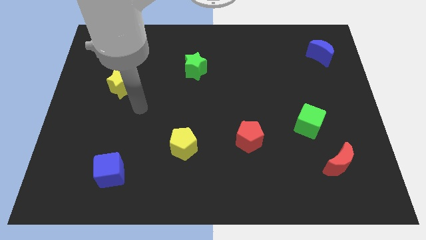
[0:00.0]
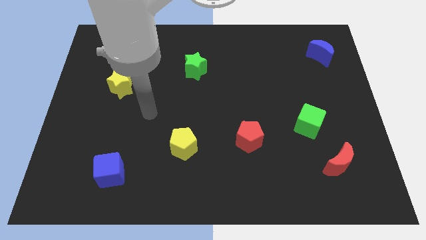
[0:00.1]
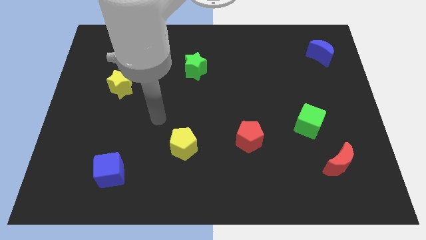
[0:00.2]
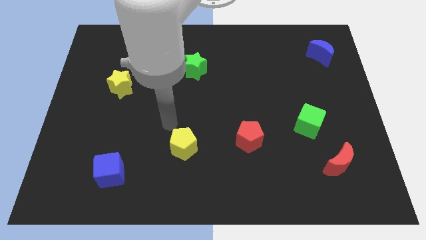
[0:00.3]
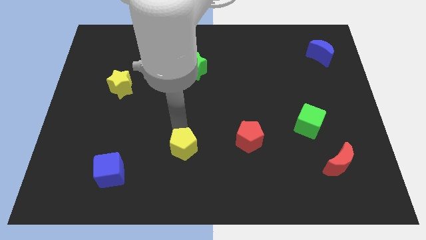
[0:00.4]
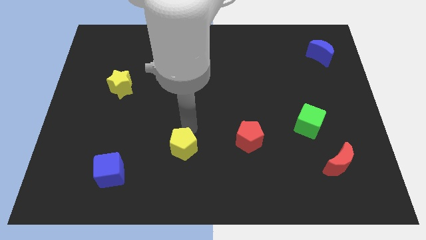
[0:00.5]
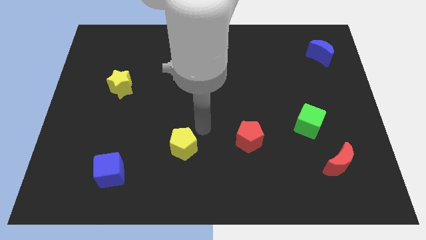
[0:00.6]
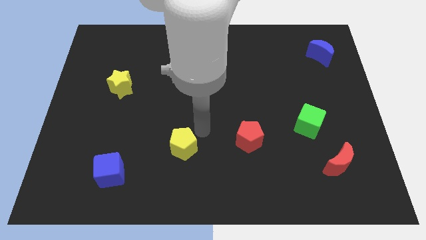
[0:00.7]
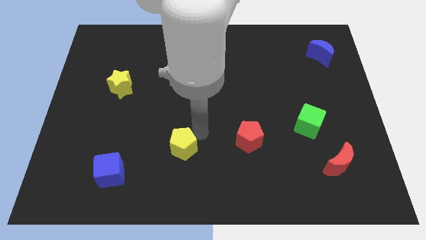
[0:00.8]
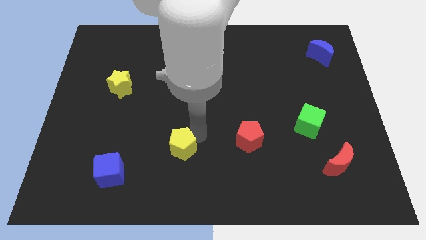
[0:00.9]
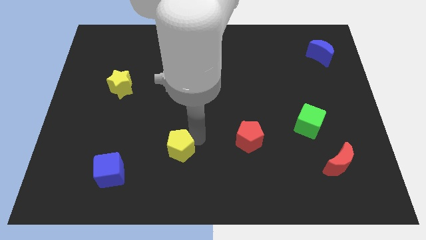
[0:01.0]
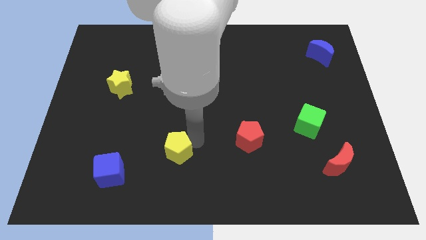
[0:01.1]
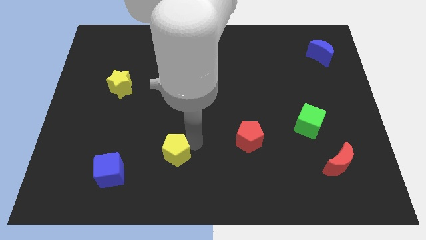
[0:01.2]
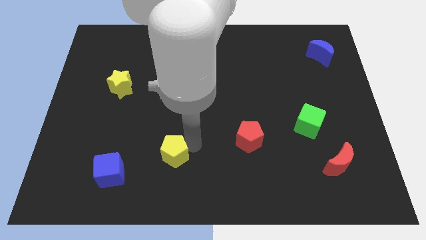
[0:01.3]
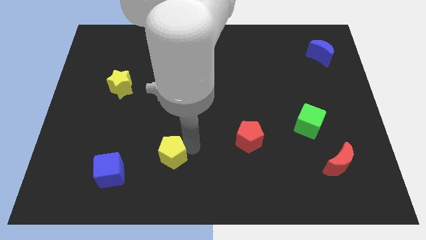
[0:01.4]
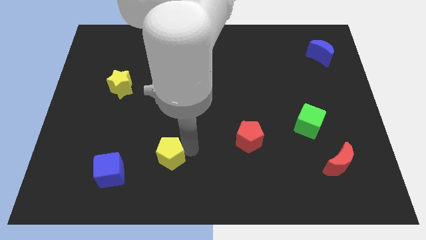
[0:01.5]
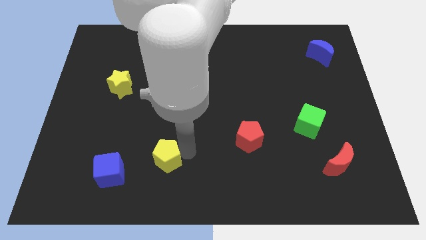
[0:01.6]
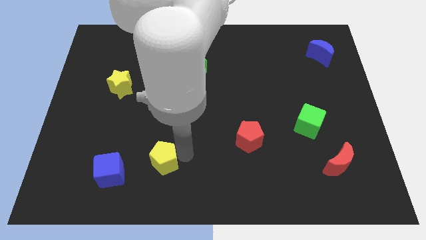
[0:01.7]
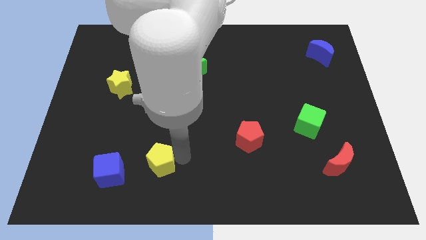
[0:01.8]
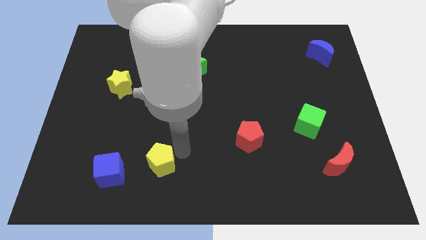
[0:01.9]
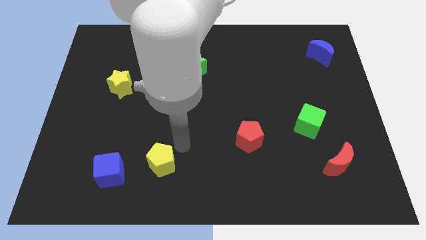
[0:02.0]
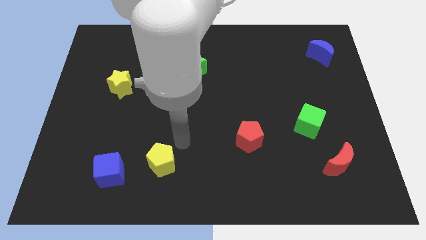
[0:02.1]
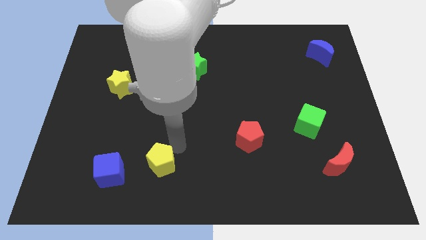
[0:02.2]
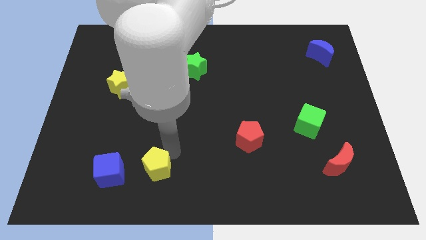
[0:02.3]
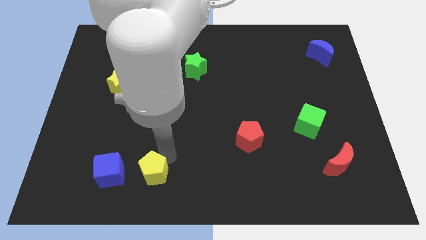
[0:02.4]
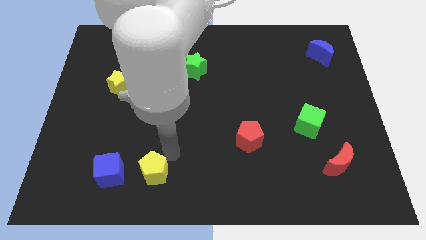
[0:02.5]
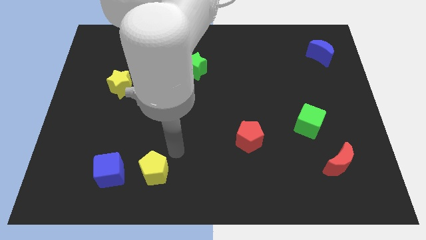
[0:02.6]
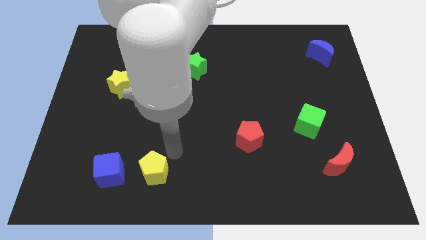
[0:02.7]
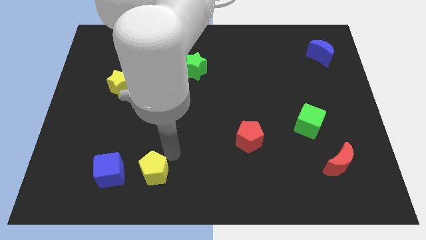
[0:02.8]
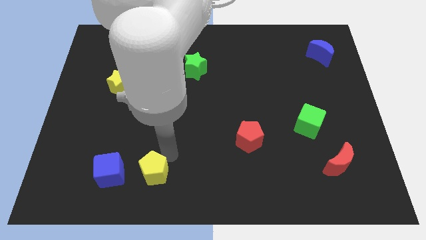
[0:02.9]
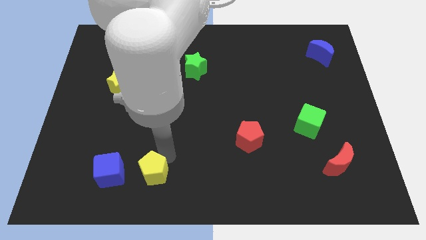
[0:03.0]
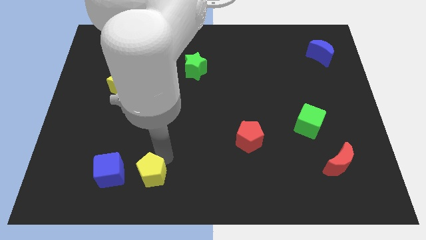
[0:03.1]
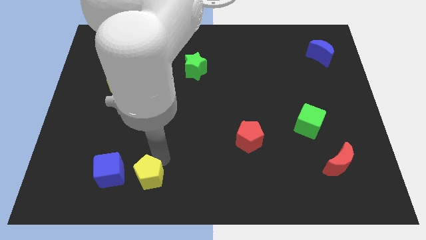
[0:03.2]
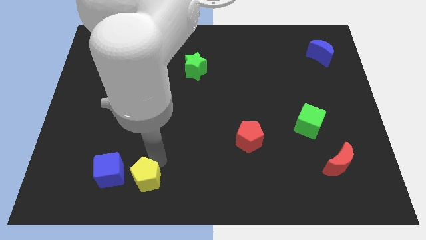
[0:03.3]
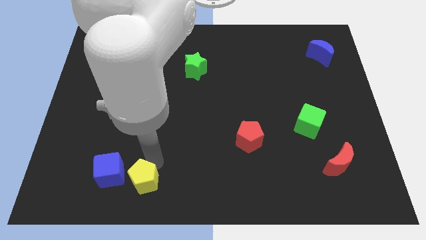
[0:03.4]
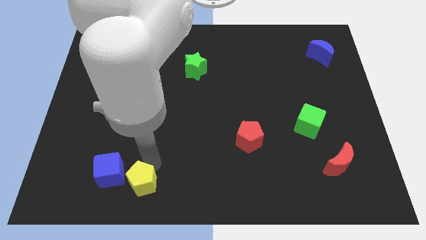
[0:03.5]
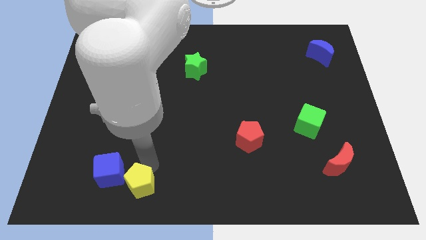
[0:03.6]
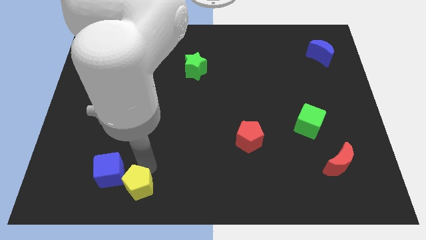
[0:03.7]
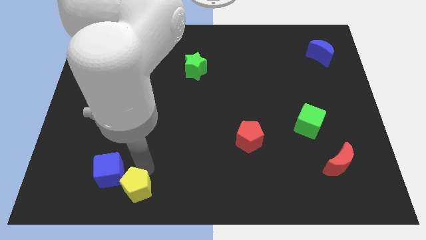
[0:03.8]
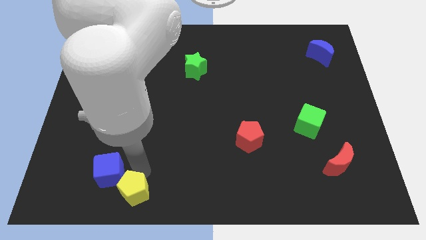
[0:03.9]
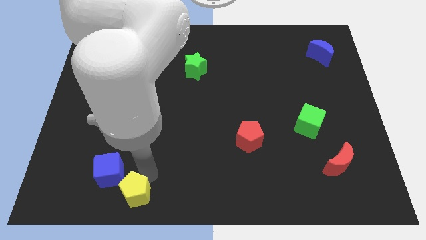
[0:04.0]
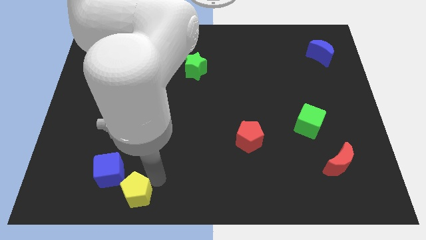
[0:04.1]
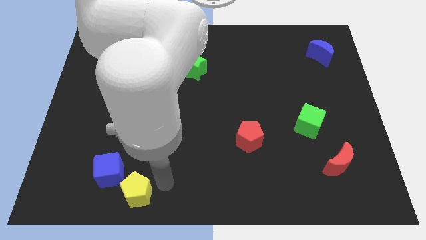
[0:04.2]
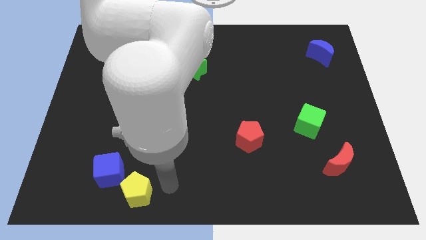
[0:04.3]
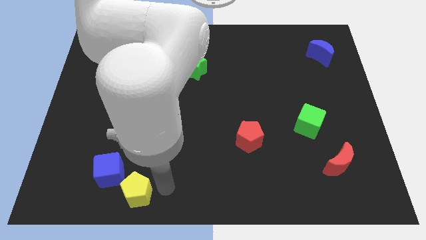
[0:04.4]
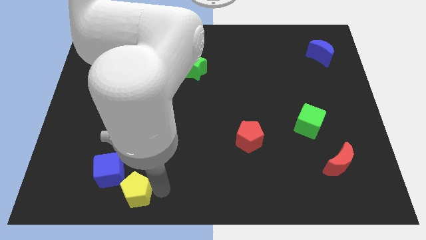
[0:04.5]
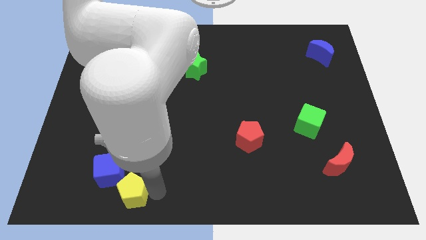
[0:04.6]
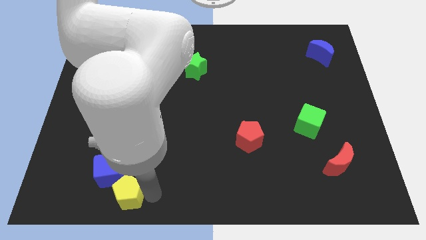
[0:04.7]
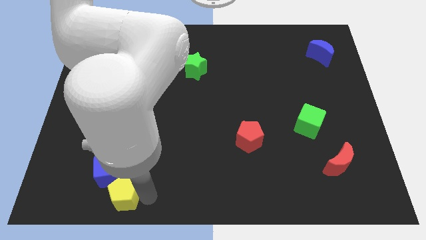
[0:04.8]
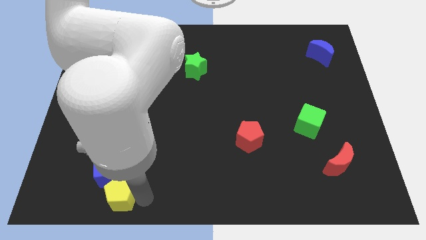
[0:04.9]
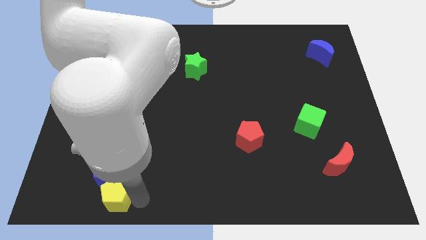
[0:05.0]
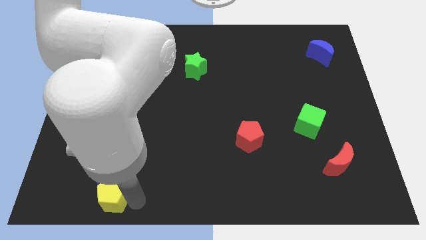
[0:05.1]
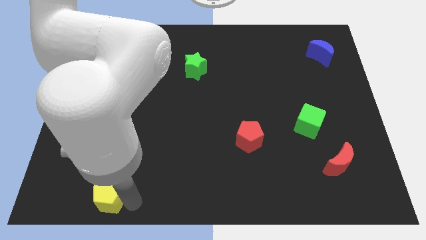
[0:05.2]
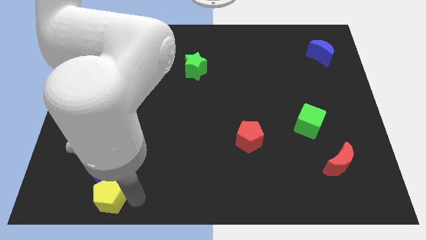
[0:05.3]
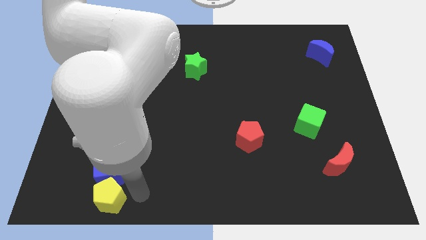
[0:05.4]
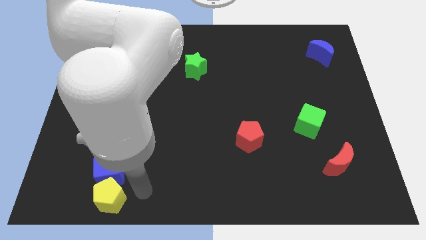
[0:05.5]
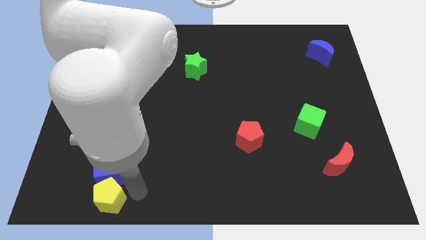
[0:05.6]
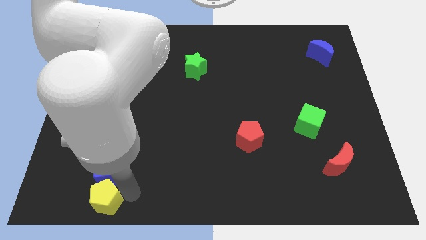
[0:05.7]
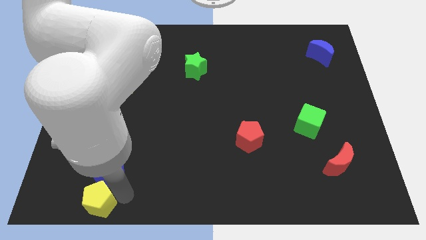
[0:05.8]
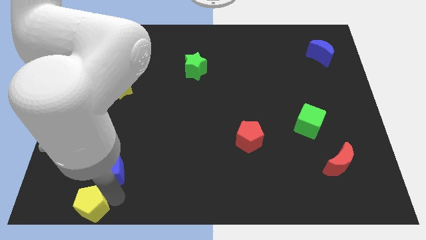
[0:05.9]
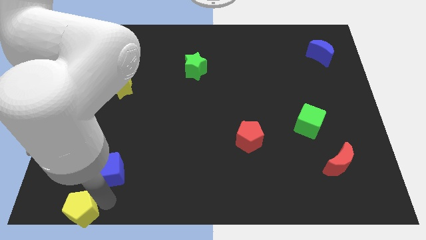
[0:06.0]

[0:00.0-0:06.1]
put the yellow pentagon to the bottom left of the board
